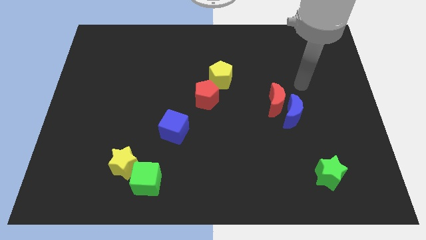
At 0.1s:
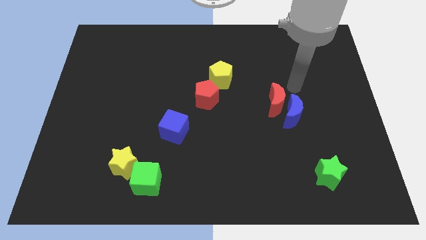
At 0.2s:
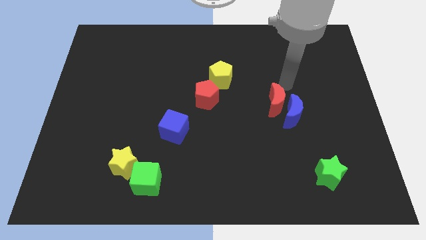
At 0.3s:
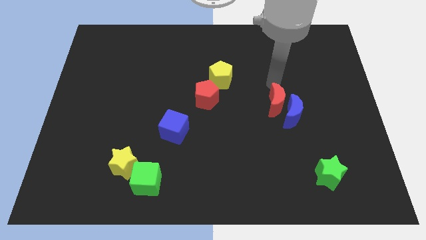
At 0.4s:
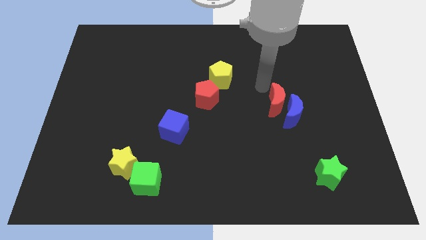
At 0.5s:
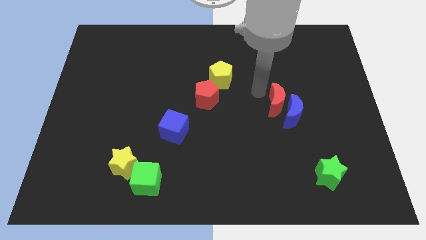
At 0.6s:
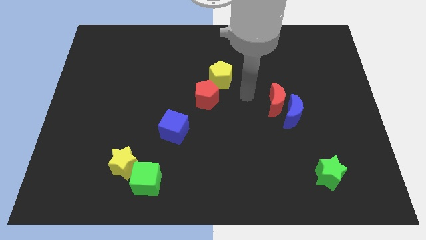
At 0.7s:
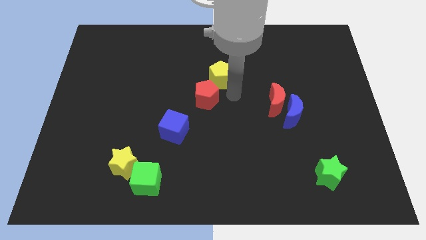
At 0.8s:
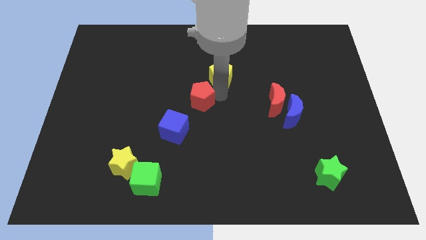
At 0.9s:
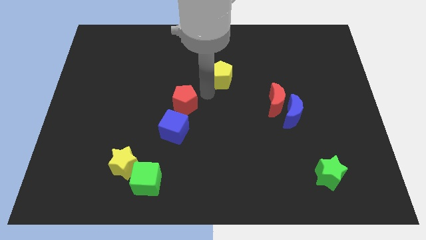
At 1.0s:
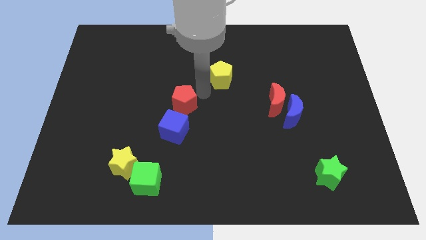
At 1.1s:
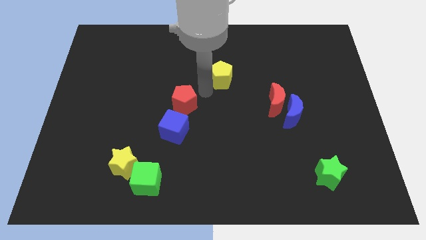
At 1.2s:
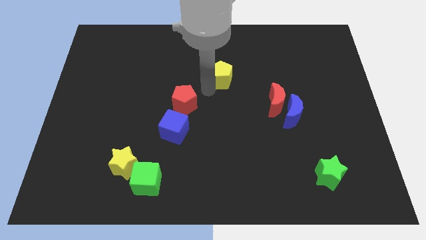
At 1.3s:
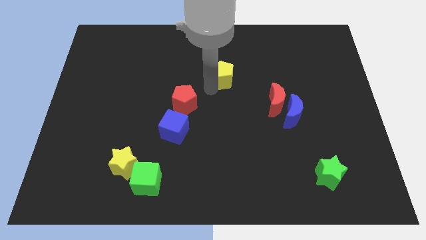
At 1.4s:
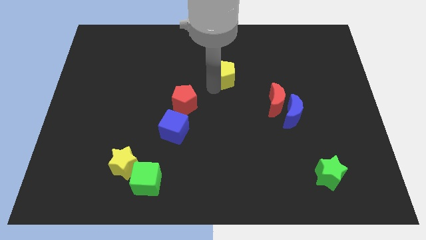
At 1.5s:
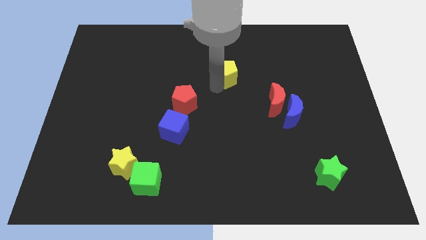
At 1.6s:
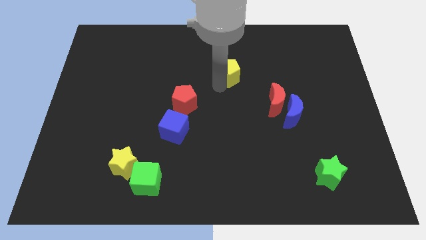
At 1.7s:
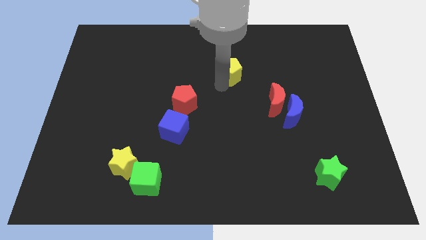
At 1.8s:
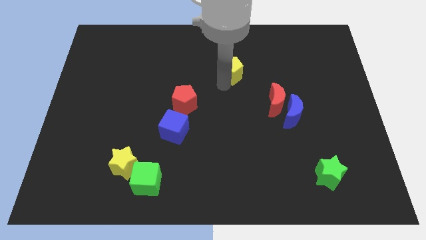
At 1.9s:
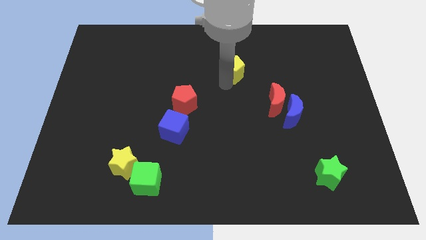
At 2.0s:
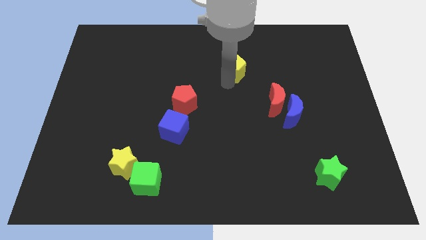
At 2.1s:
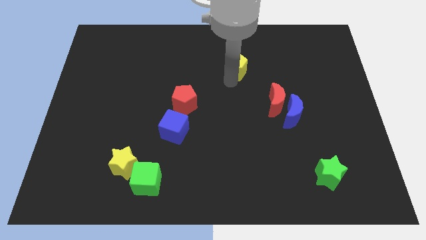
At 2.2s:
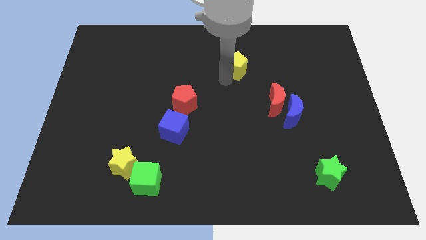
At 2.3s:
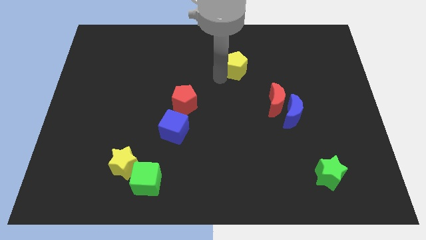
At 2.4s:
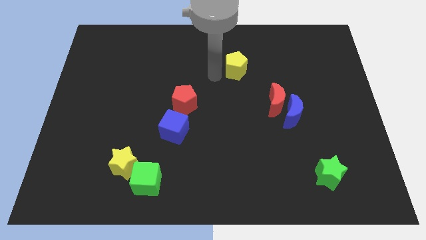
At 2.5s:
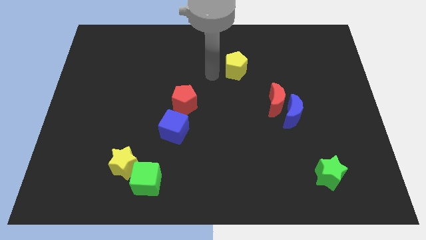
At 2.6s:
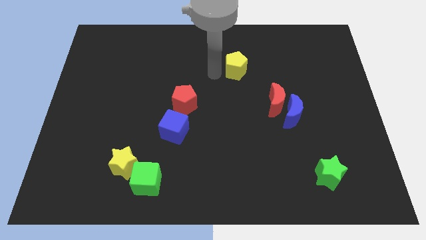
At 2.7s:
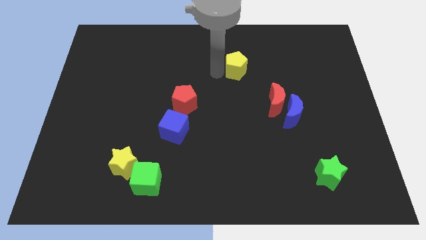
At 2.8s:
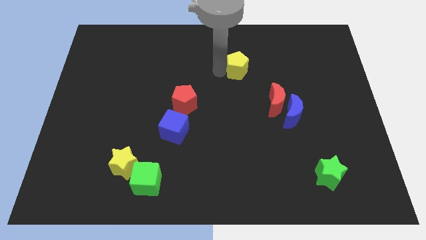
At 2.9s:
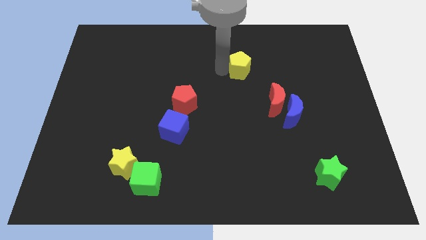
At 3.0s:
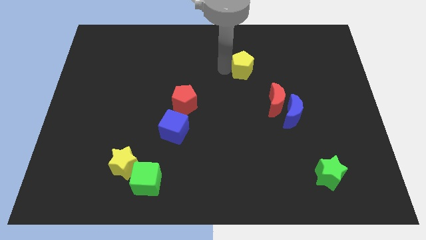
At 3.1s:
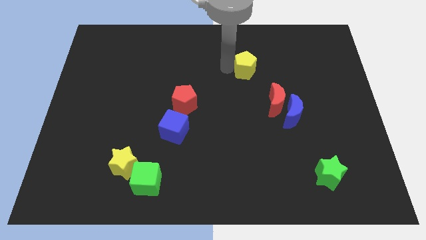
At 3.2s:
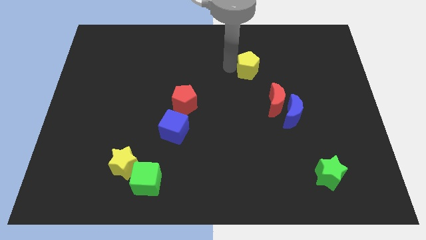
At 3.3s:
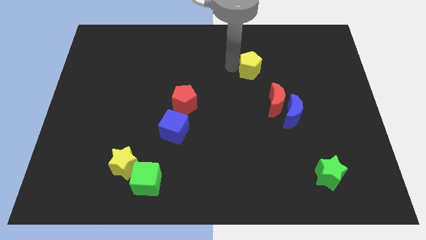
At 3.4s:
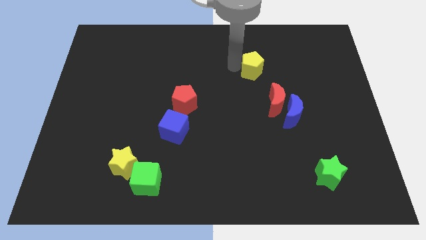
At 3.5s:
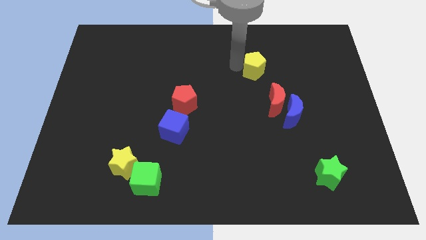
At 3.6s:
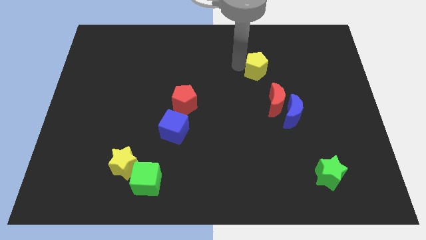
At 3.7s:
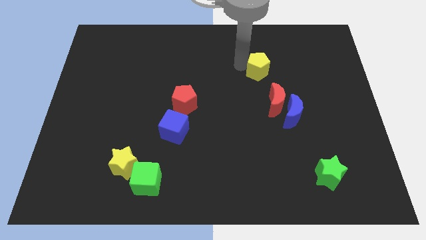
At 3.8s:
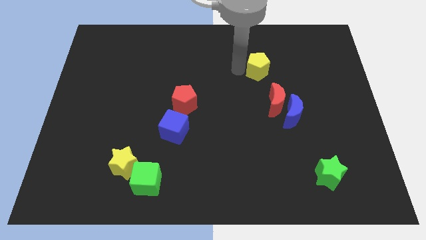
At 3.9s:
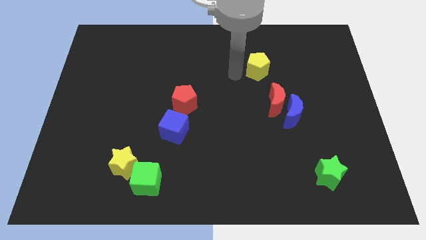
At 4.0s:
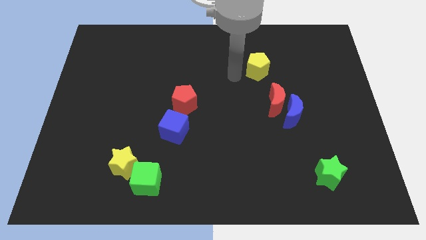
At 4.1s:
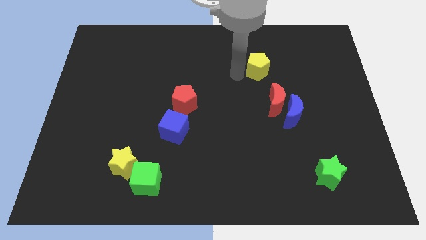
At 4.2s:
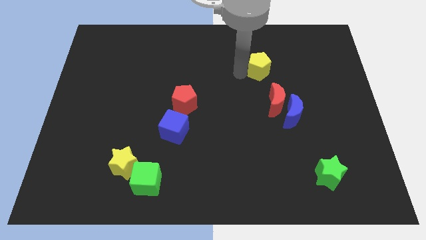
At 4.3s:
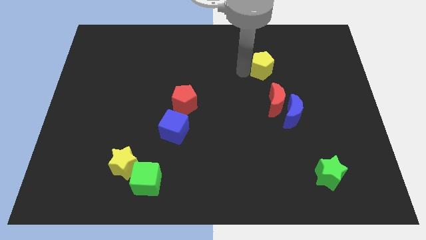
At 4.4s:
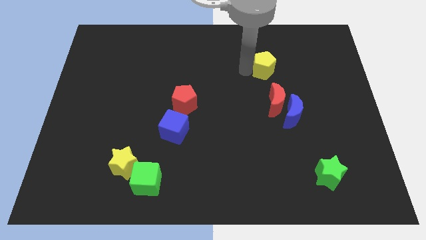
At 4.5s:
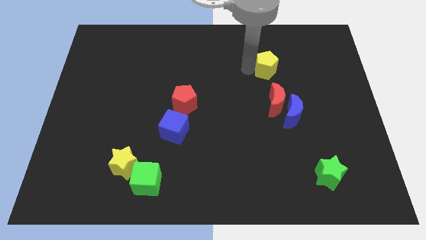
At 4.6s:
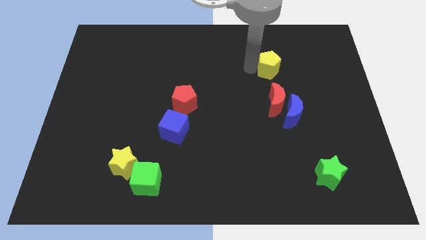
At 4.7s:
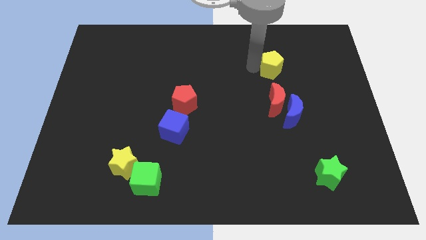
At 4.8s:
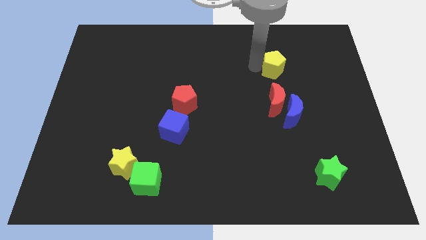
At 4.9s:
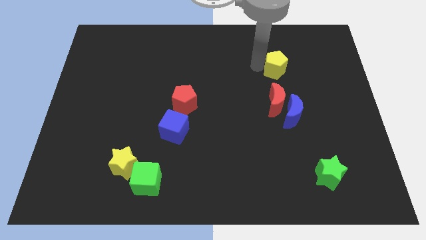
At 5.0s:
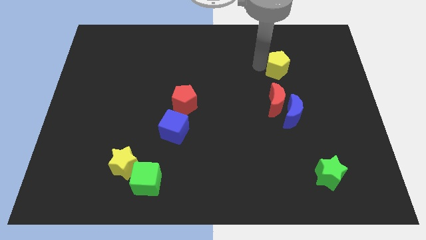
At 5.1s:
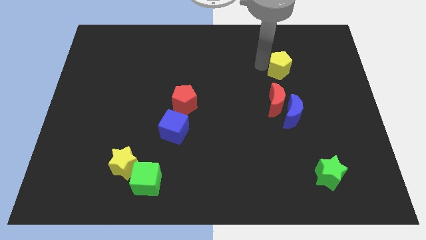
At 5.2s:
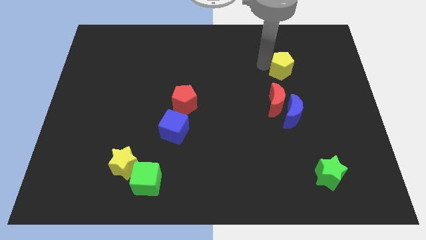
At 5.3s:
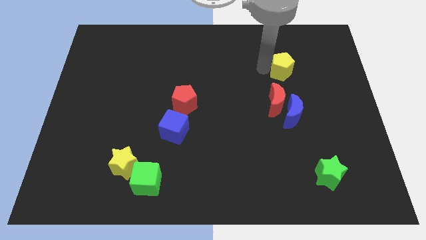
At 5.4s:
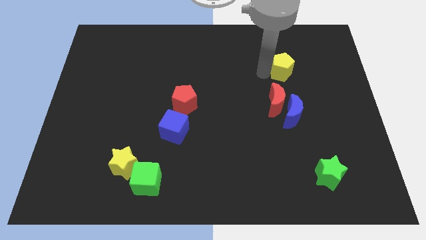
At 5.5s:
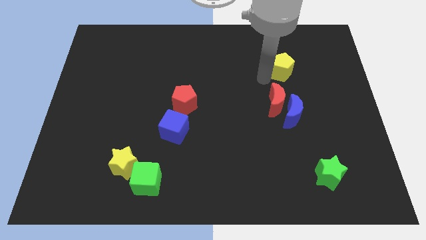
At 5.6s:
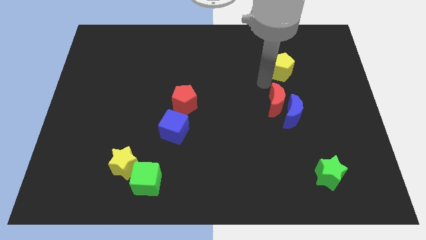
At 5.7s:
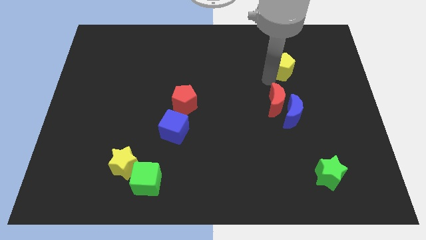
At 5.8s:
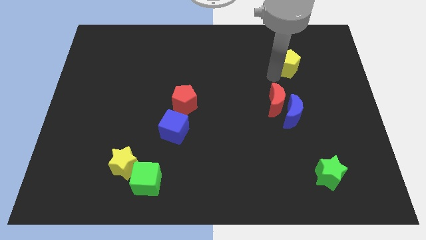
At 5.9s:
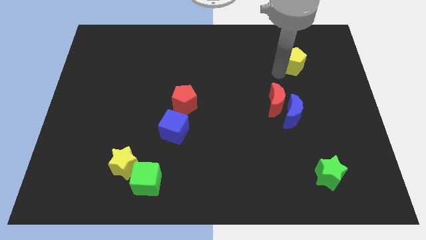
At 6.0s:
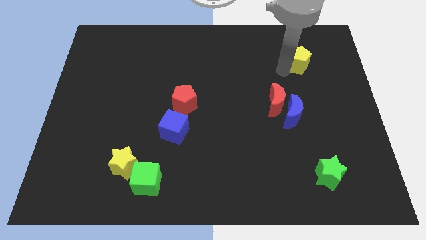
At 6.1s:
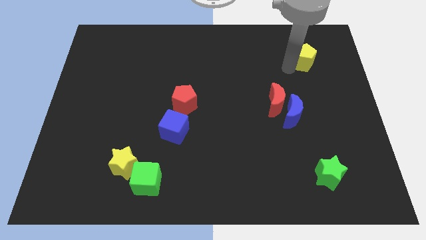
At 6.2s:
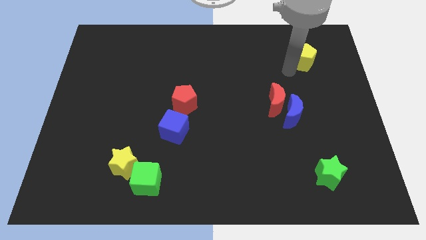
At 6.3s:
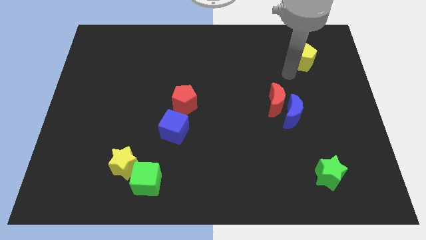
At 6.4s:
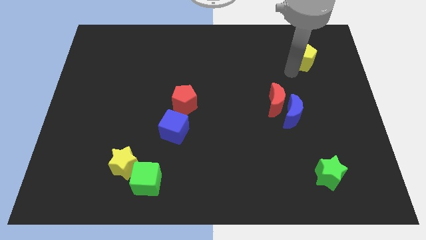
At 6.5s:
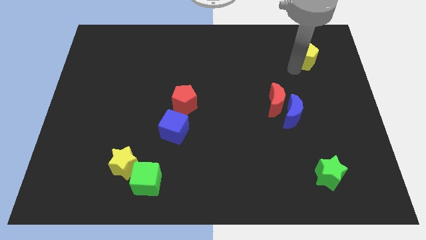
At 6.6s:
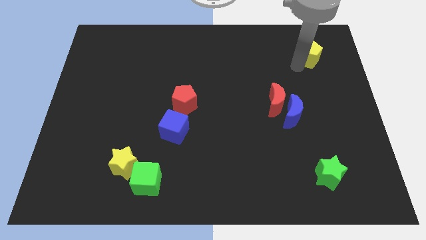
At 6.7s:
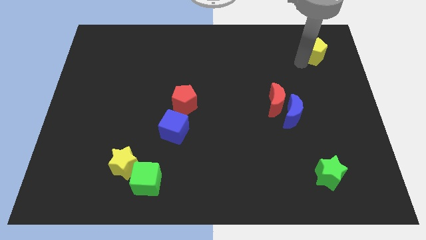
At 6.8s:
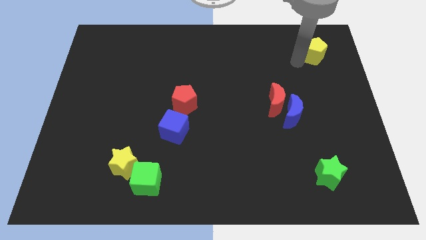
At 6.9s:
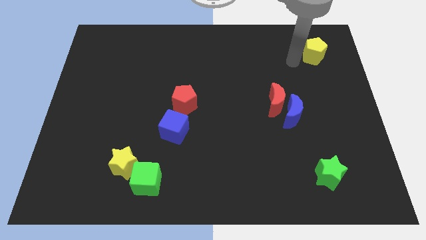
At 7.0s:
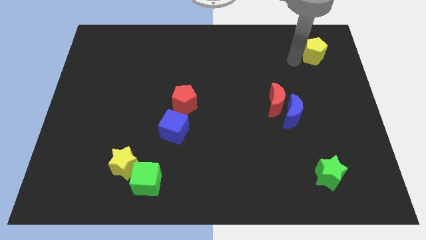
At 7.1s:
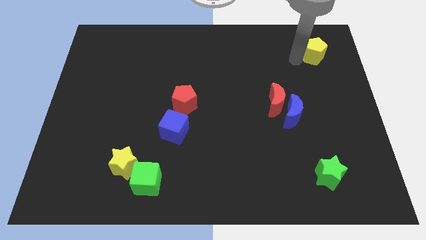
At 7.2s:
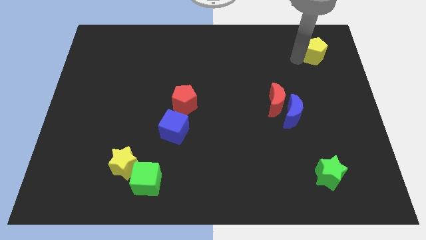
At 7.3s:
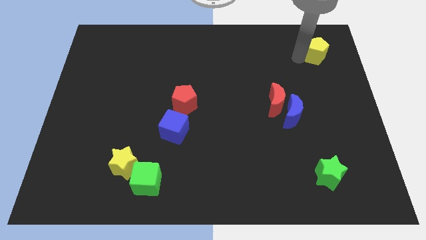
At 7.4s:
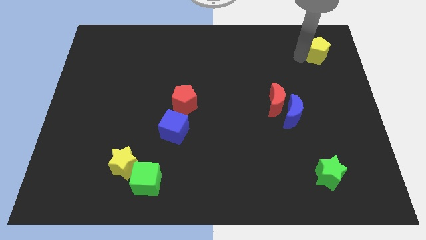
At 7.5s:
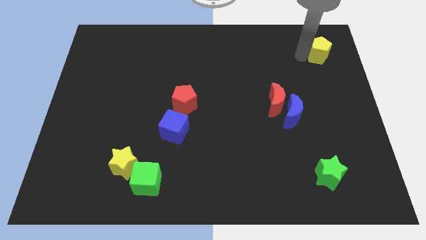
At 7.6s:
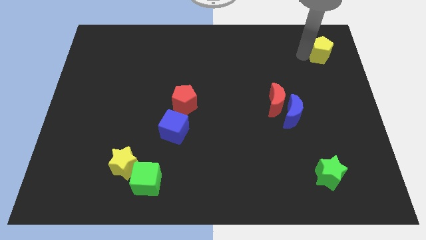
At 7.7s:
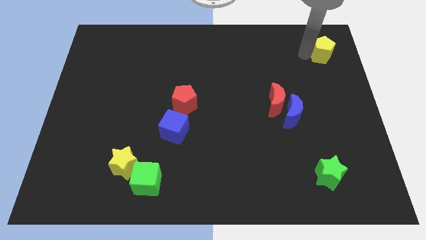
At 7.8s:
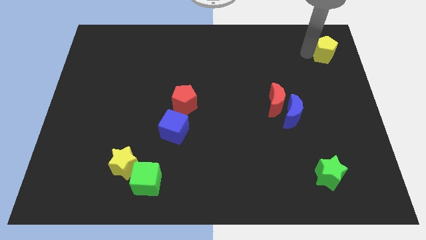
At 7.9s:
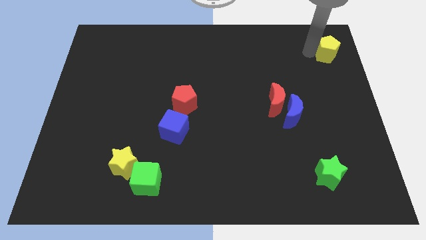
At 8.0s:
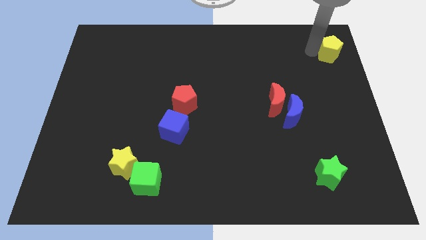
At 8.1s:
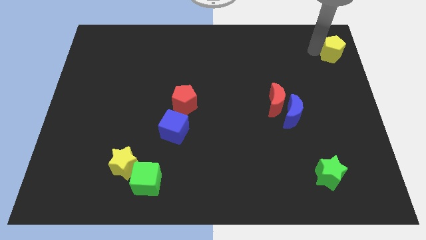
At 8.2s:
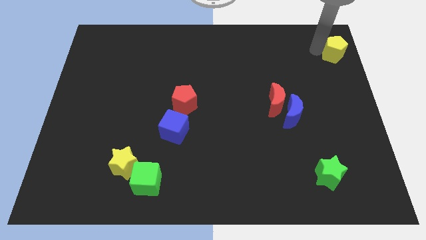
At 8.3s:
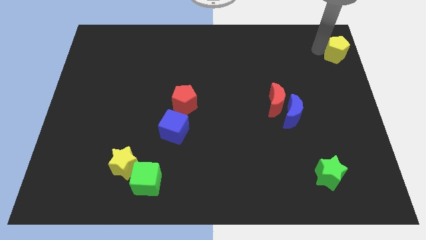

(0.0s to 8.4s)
put the yellow pentagon to the top right corner
